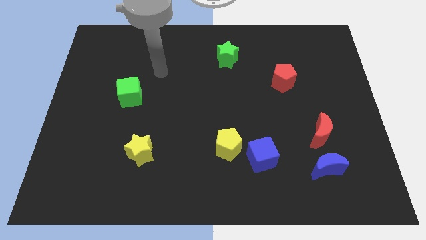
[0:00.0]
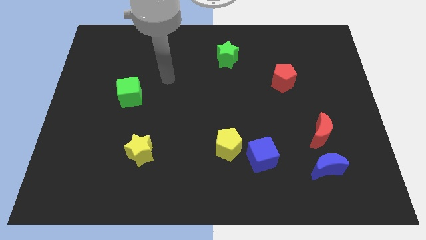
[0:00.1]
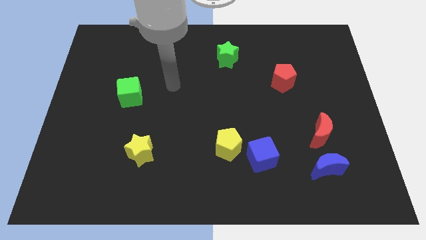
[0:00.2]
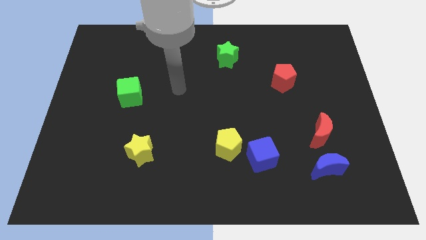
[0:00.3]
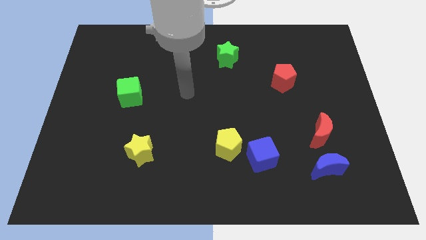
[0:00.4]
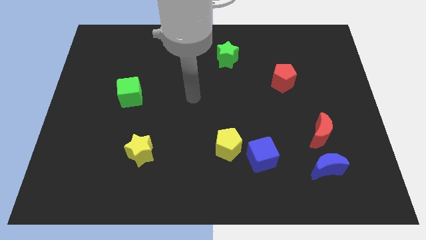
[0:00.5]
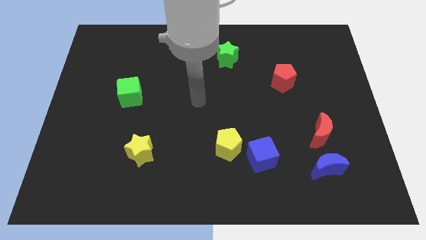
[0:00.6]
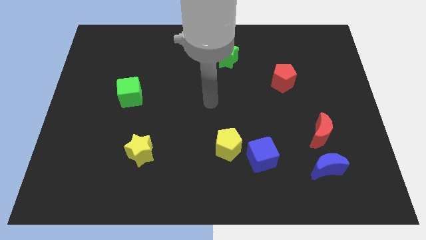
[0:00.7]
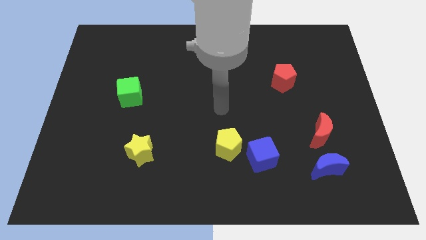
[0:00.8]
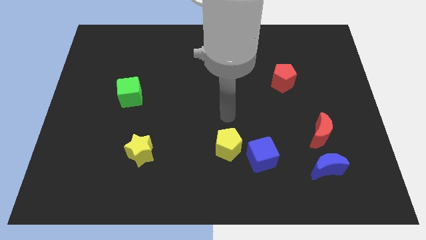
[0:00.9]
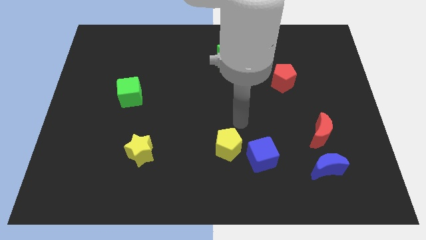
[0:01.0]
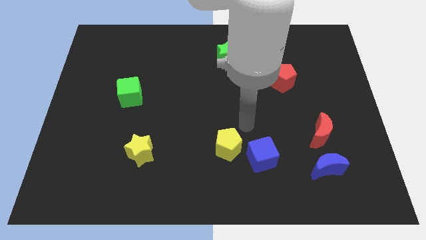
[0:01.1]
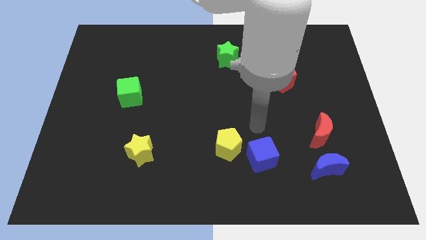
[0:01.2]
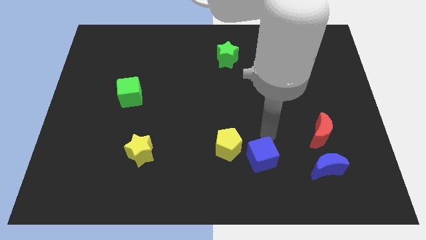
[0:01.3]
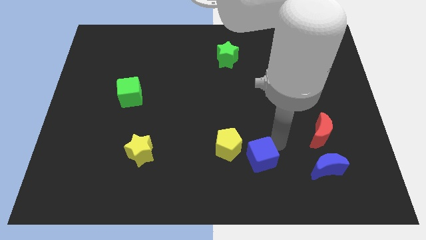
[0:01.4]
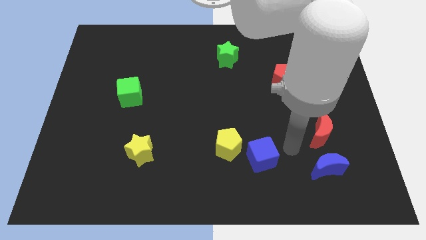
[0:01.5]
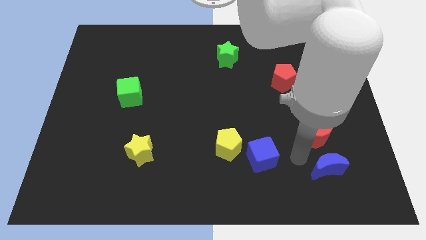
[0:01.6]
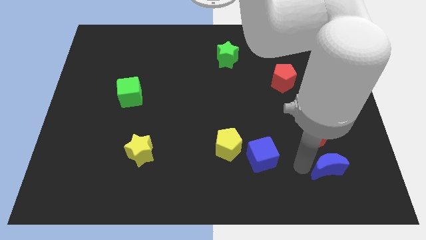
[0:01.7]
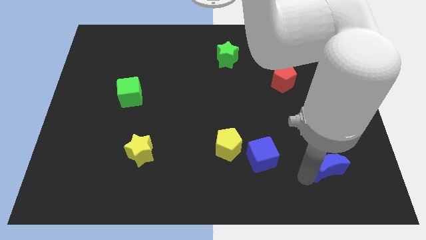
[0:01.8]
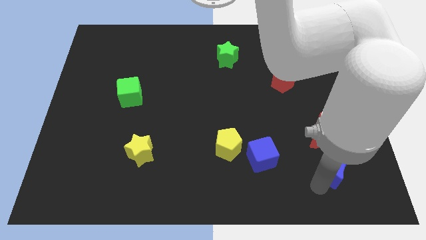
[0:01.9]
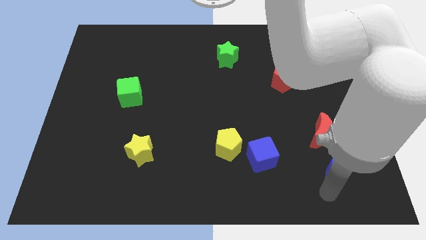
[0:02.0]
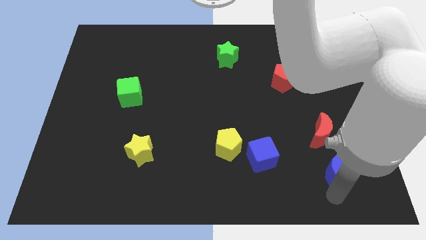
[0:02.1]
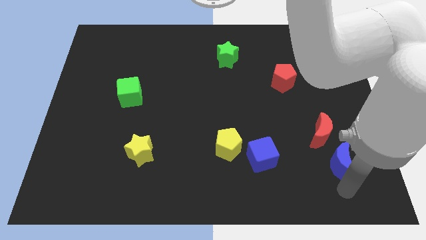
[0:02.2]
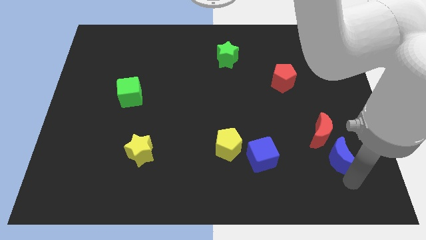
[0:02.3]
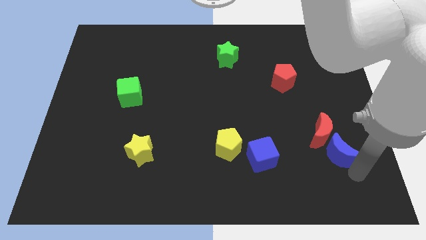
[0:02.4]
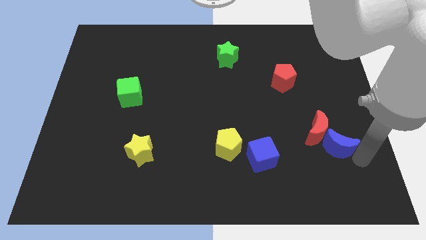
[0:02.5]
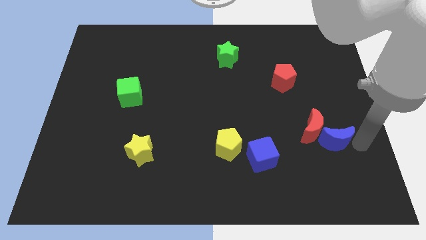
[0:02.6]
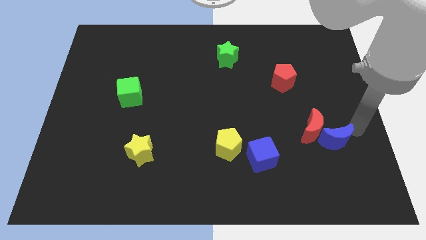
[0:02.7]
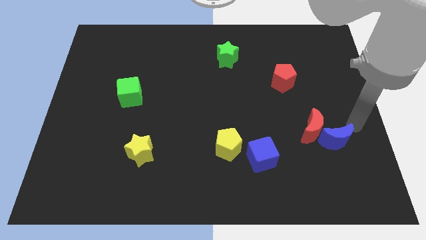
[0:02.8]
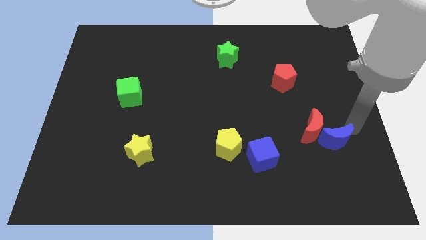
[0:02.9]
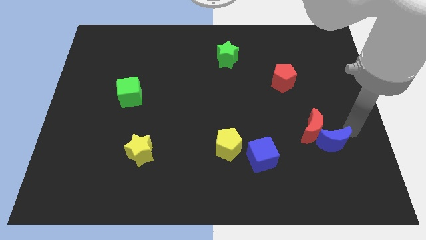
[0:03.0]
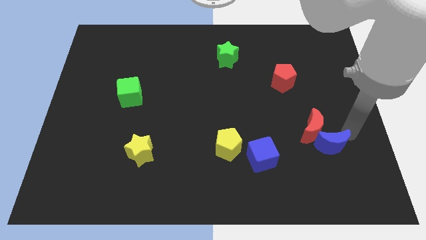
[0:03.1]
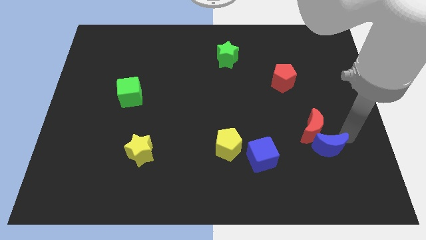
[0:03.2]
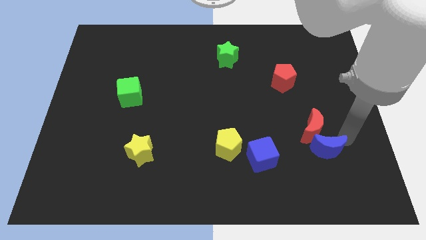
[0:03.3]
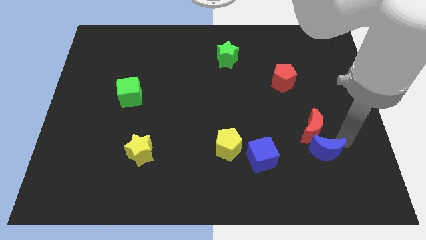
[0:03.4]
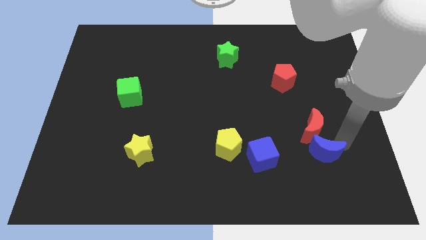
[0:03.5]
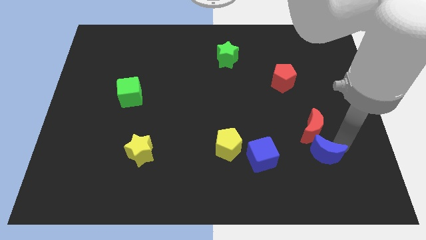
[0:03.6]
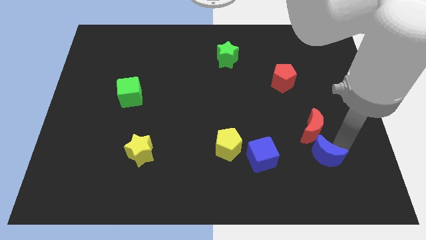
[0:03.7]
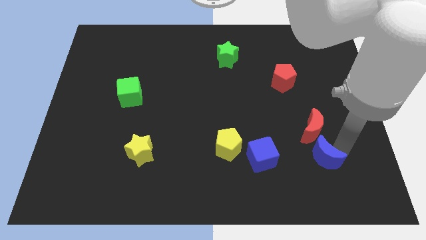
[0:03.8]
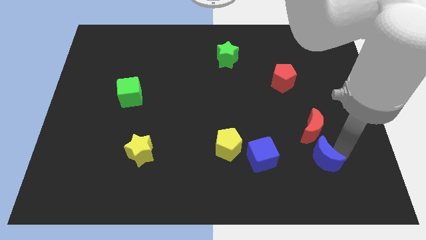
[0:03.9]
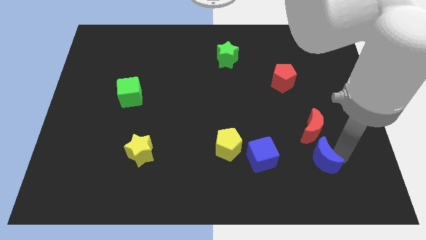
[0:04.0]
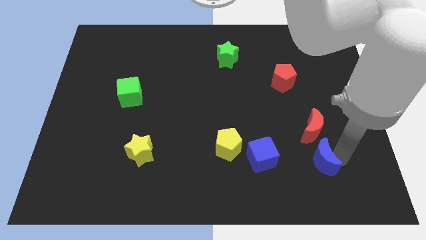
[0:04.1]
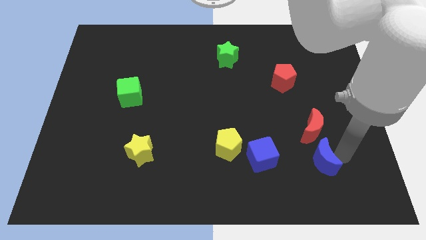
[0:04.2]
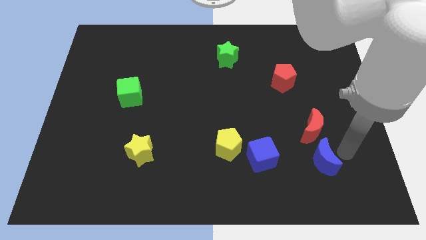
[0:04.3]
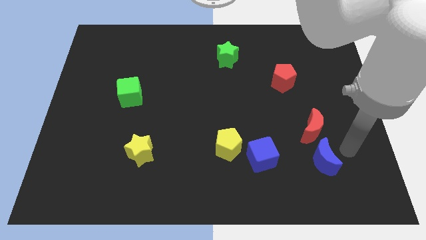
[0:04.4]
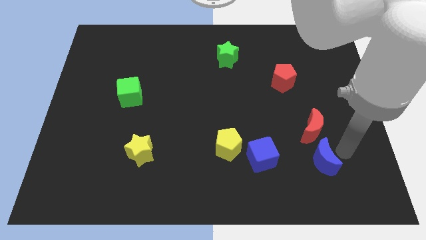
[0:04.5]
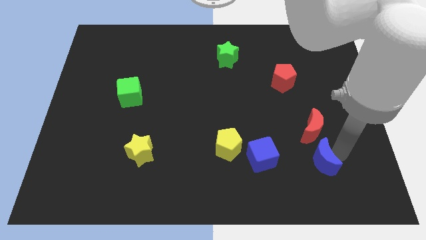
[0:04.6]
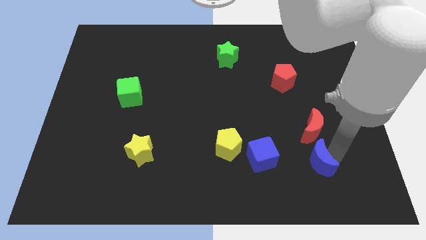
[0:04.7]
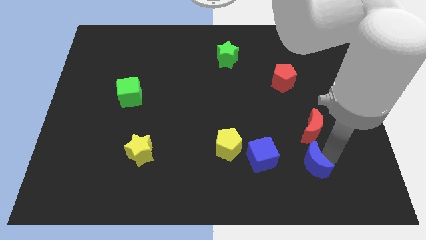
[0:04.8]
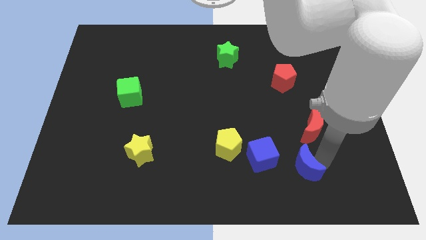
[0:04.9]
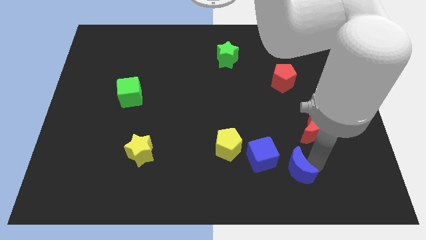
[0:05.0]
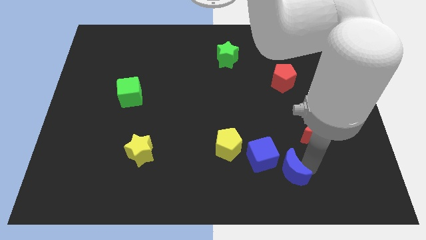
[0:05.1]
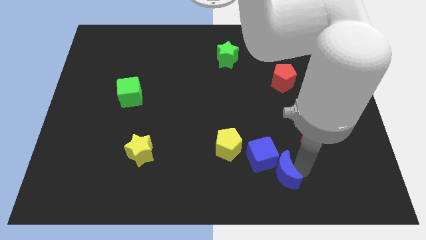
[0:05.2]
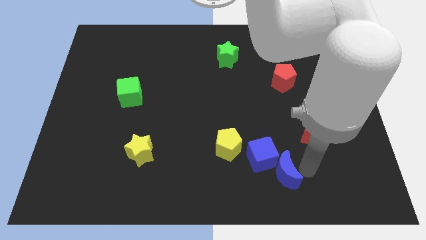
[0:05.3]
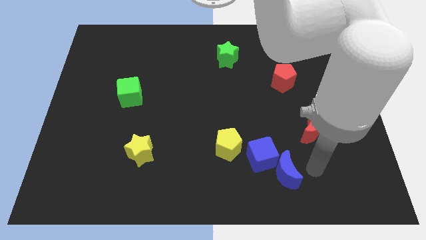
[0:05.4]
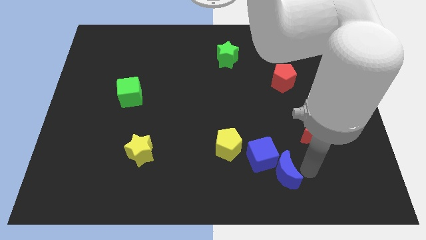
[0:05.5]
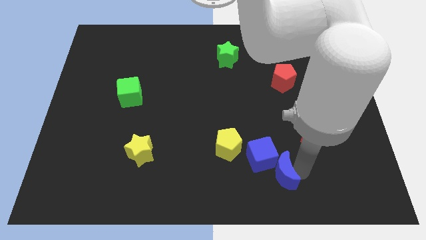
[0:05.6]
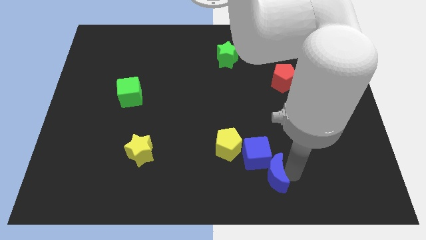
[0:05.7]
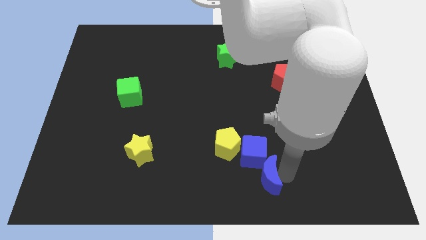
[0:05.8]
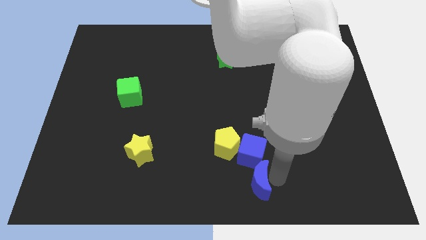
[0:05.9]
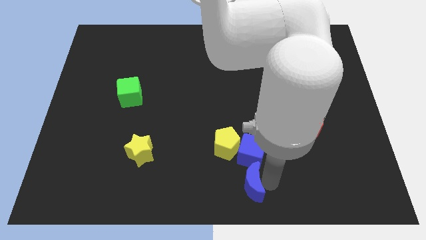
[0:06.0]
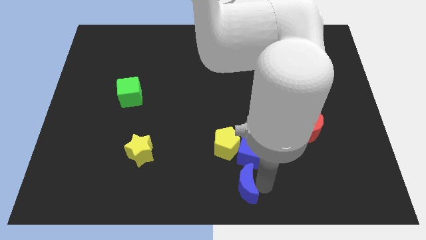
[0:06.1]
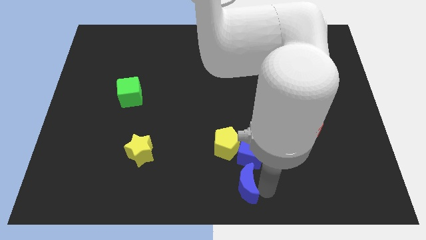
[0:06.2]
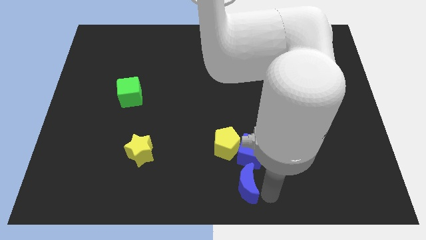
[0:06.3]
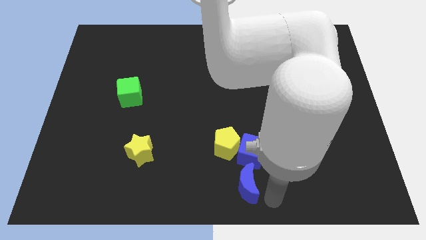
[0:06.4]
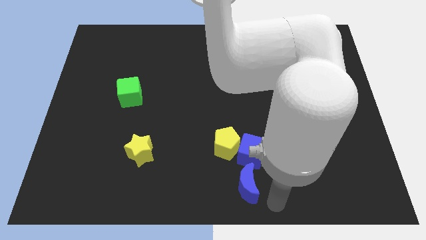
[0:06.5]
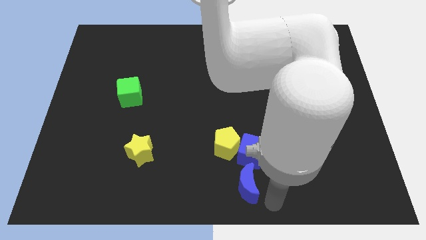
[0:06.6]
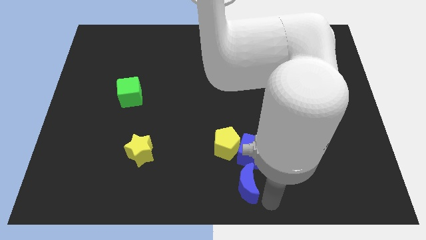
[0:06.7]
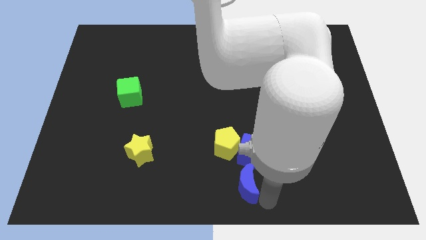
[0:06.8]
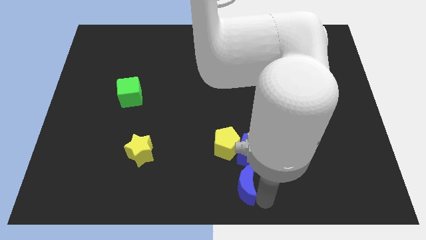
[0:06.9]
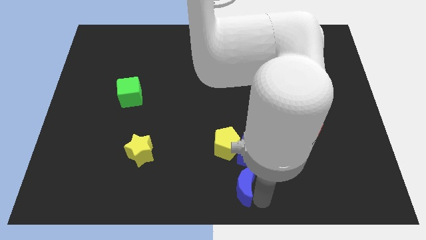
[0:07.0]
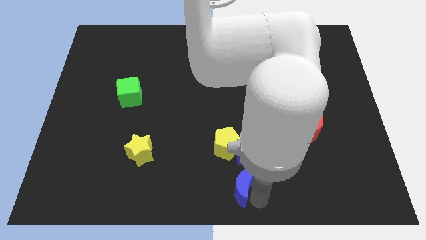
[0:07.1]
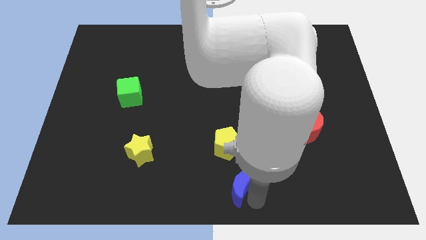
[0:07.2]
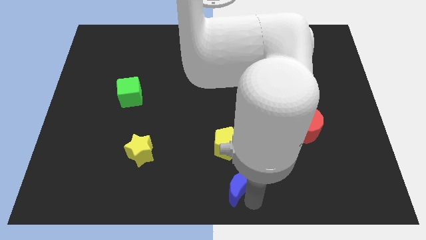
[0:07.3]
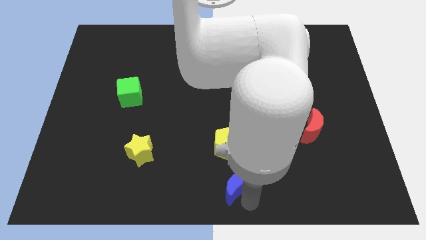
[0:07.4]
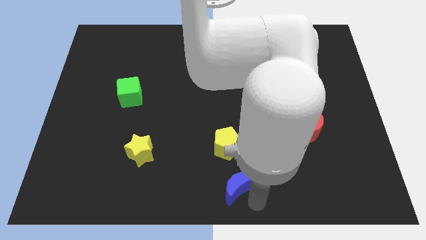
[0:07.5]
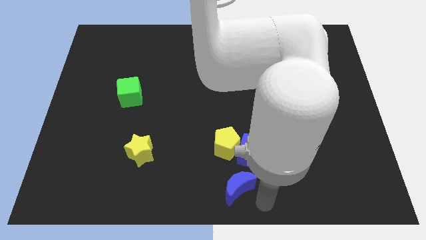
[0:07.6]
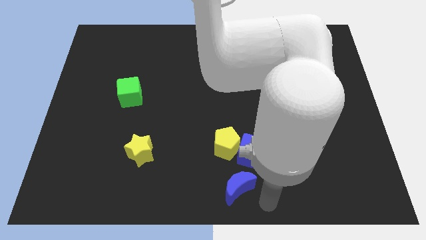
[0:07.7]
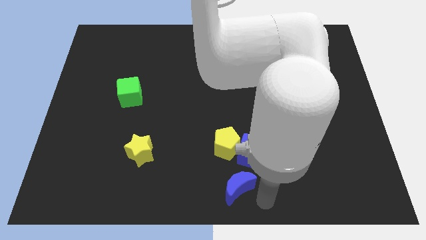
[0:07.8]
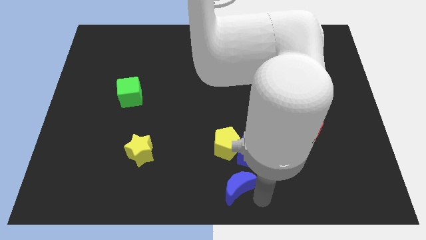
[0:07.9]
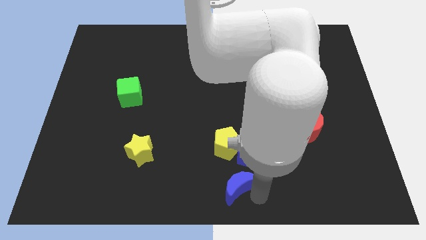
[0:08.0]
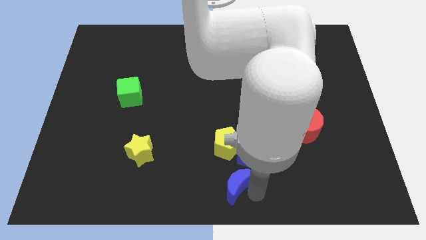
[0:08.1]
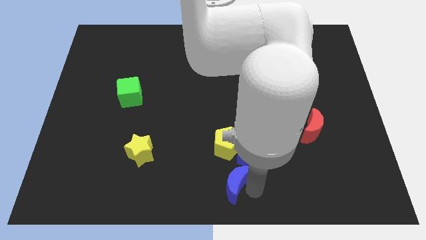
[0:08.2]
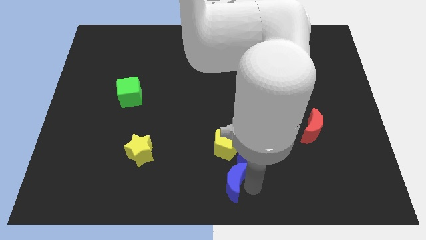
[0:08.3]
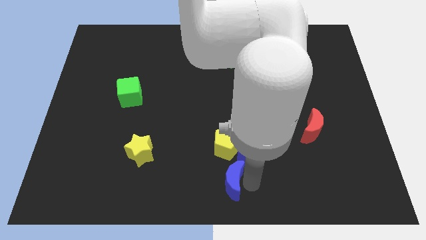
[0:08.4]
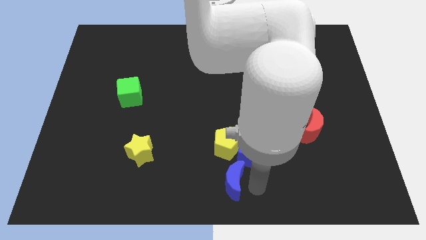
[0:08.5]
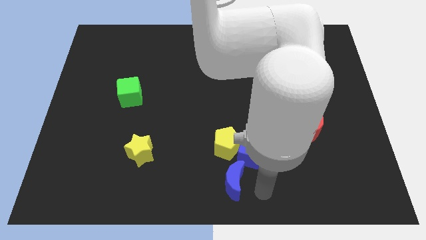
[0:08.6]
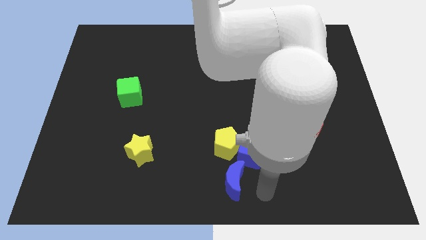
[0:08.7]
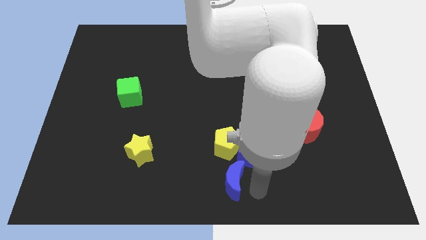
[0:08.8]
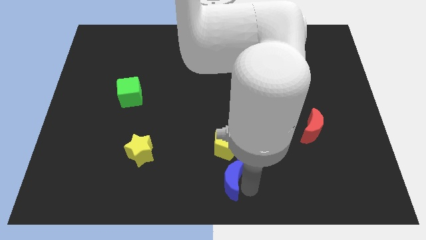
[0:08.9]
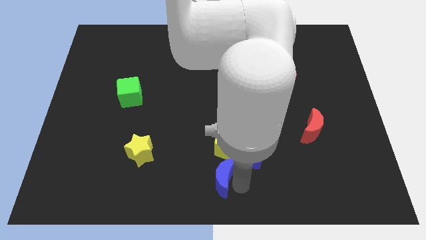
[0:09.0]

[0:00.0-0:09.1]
move the blue moon to the left
